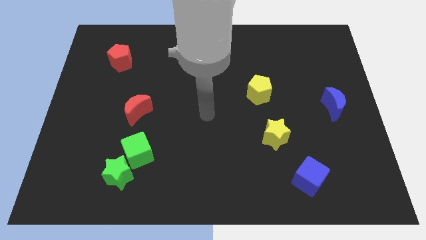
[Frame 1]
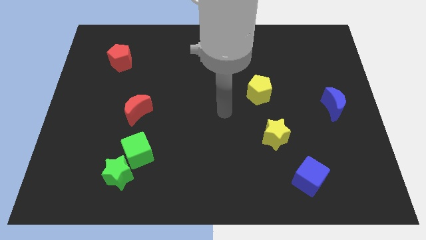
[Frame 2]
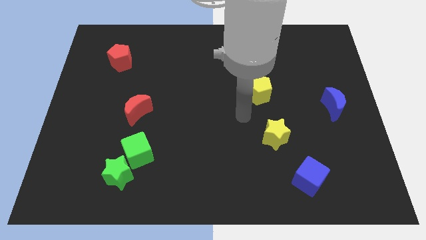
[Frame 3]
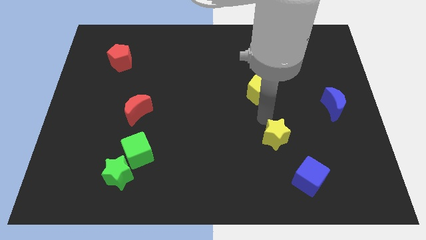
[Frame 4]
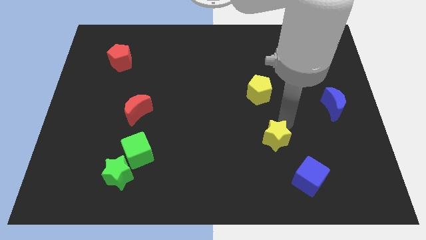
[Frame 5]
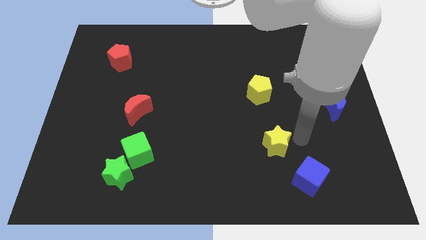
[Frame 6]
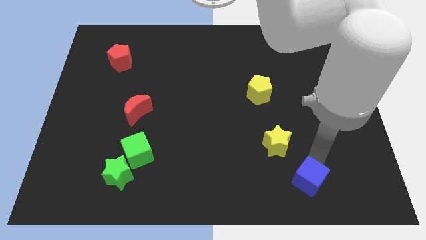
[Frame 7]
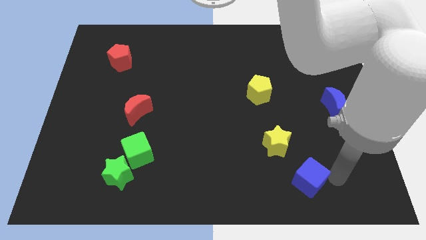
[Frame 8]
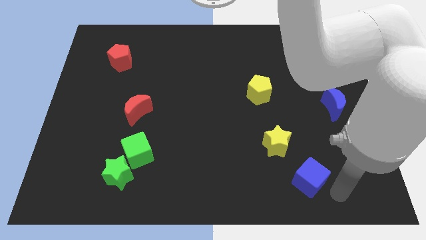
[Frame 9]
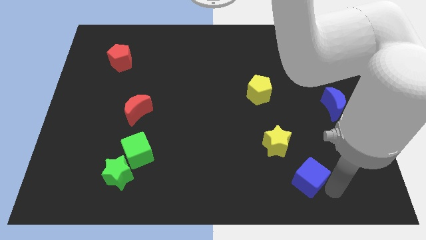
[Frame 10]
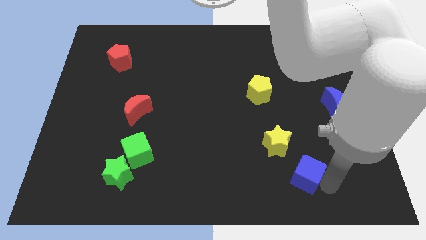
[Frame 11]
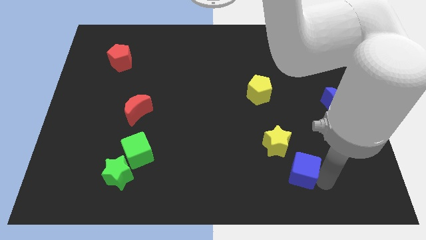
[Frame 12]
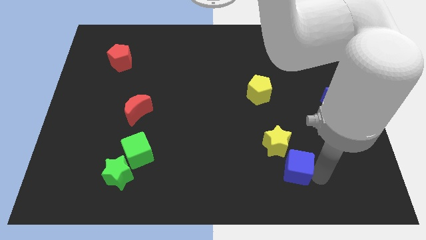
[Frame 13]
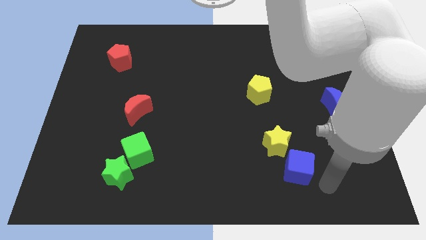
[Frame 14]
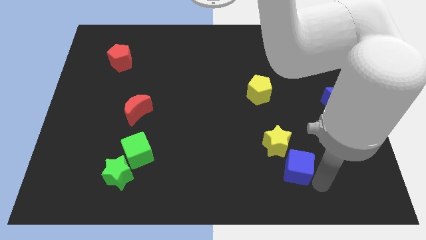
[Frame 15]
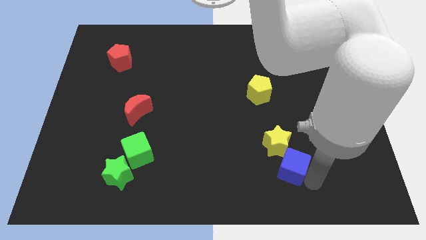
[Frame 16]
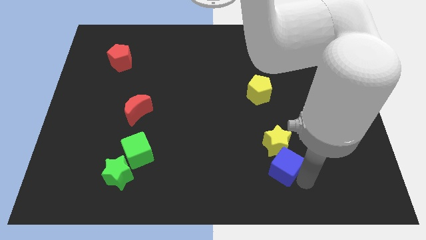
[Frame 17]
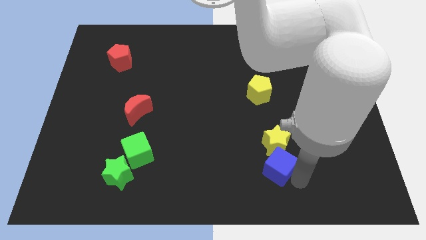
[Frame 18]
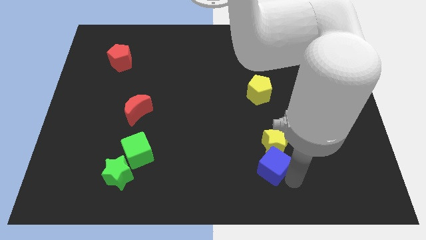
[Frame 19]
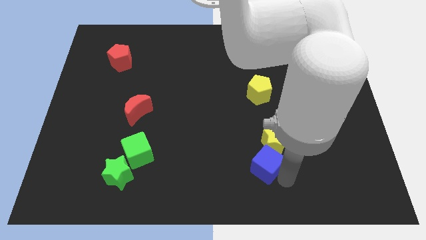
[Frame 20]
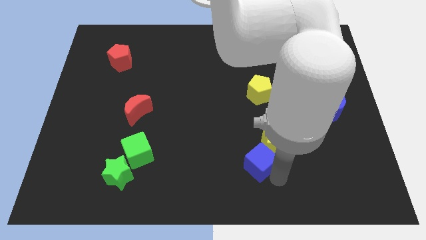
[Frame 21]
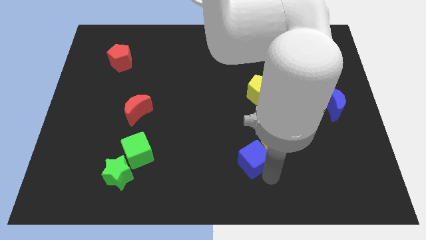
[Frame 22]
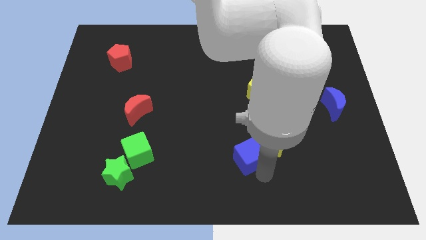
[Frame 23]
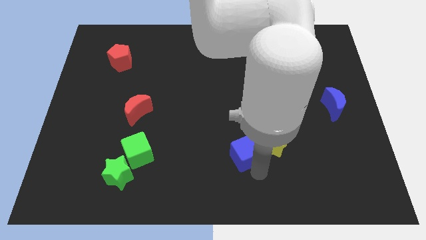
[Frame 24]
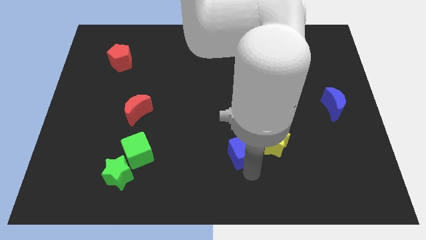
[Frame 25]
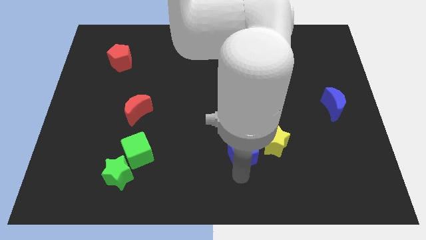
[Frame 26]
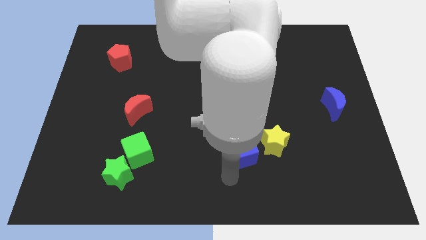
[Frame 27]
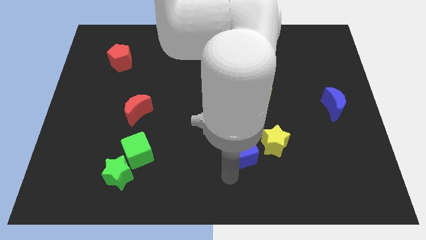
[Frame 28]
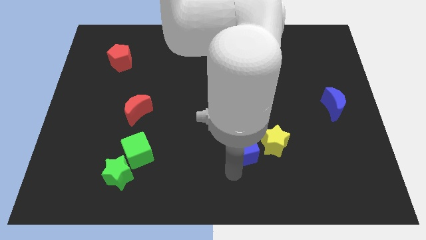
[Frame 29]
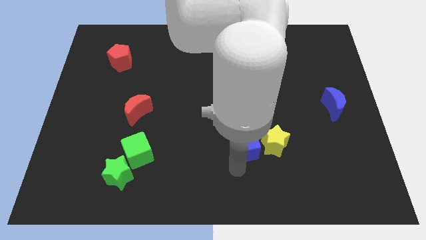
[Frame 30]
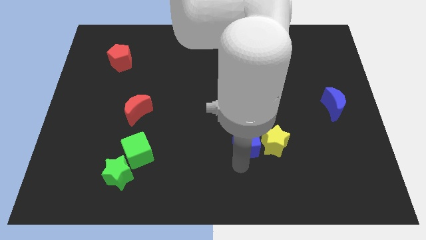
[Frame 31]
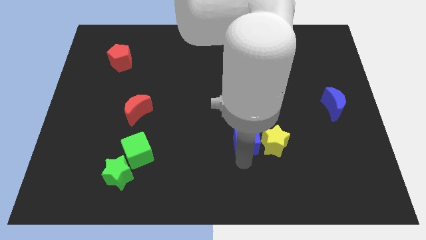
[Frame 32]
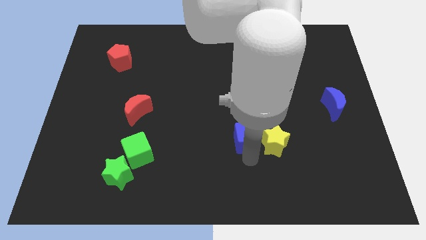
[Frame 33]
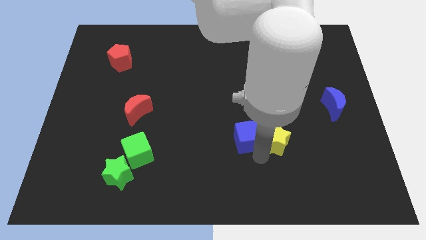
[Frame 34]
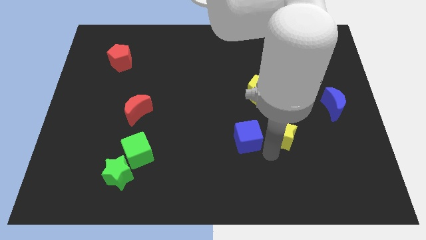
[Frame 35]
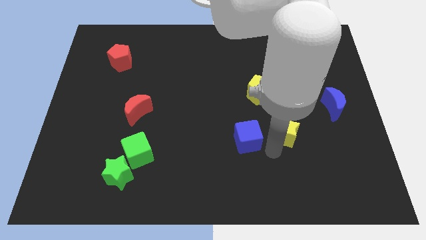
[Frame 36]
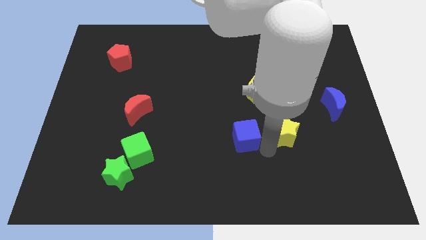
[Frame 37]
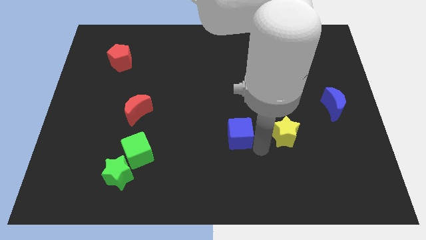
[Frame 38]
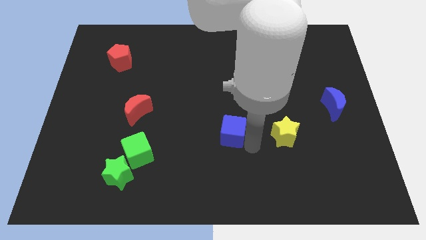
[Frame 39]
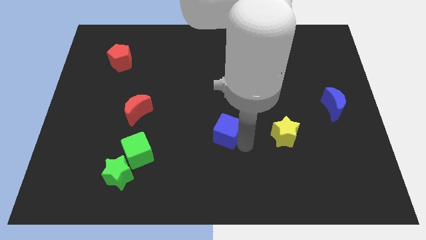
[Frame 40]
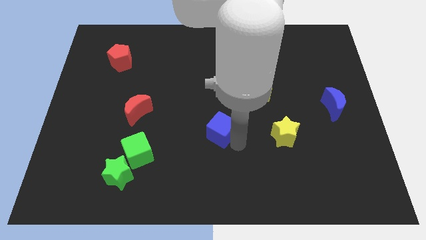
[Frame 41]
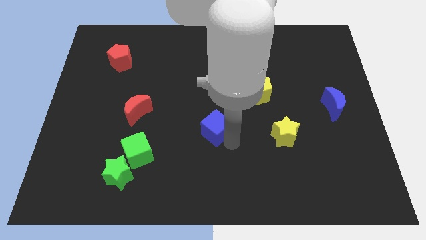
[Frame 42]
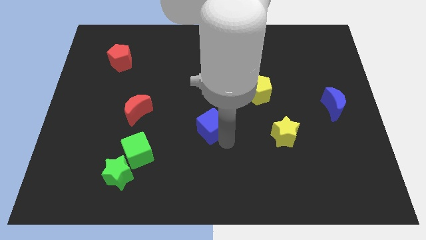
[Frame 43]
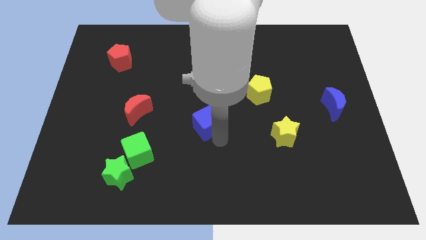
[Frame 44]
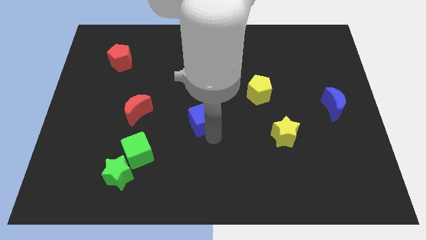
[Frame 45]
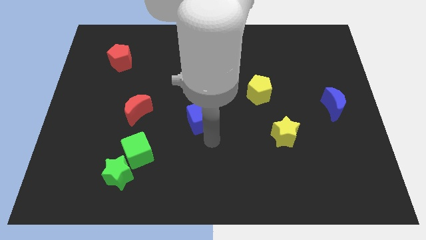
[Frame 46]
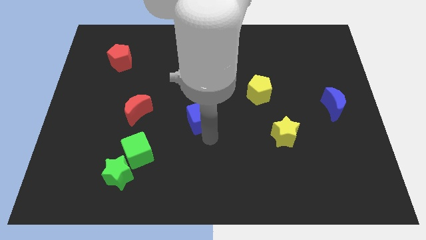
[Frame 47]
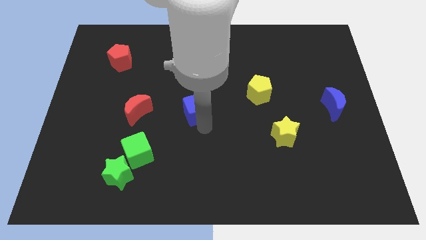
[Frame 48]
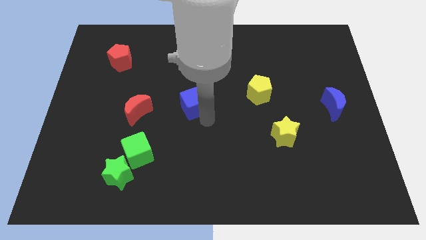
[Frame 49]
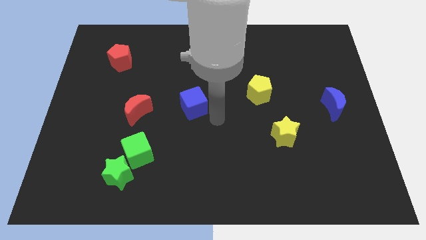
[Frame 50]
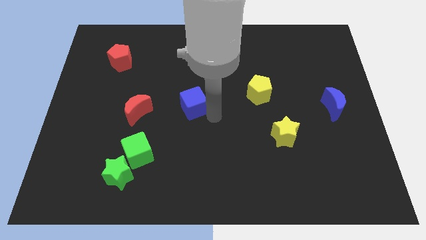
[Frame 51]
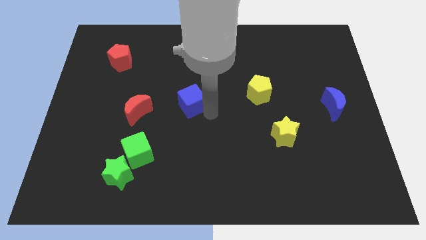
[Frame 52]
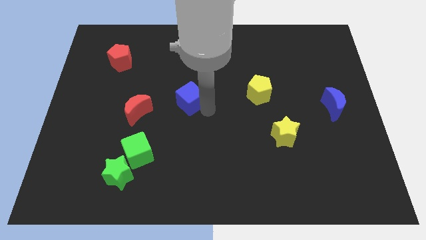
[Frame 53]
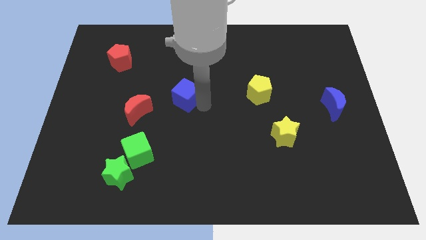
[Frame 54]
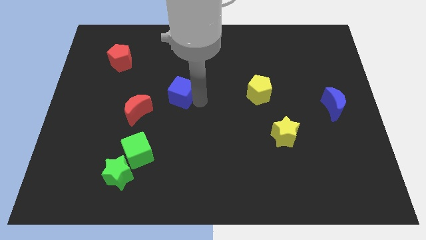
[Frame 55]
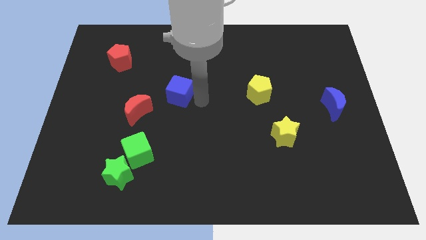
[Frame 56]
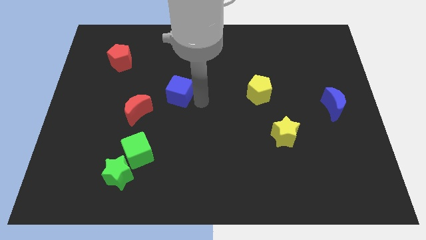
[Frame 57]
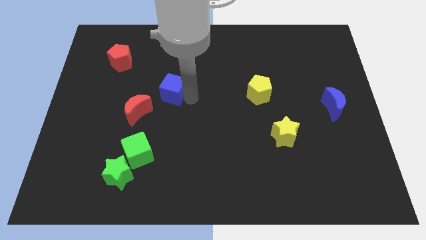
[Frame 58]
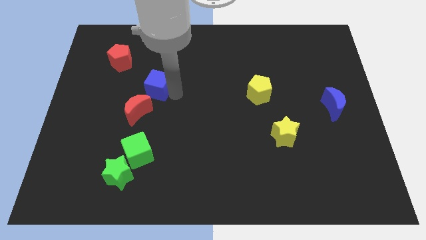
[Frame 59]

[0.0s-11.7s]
push the blue cube above the red moon
